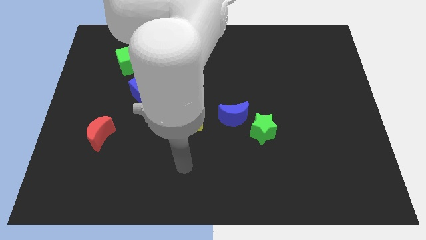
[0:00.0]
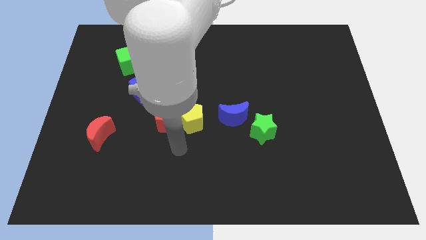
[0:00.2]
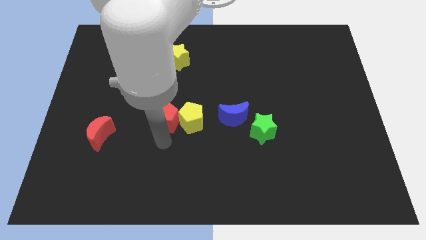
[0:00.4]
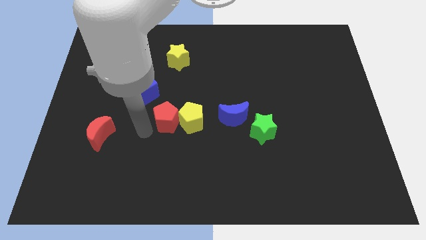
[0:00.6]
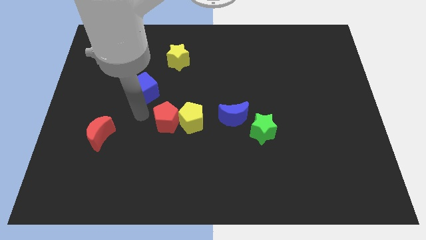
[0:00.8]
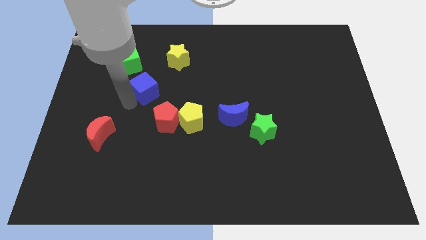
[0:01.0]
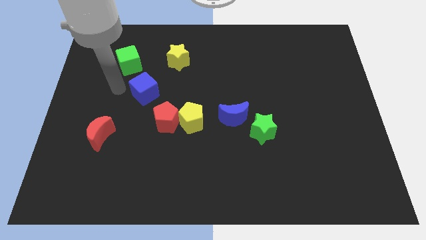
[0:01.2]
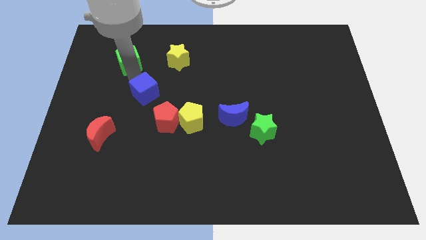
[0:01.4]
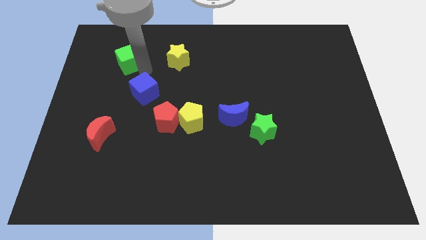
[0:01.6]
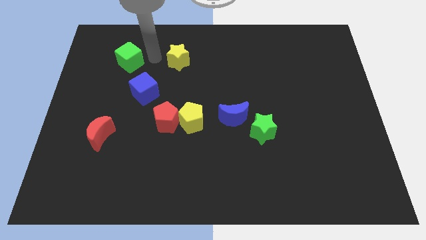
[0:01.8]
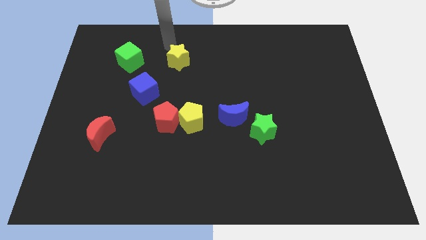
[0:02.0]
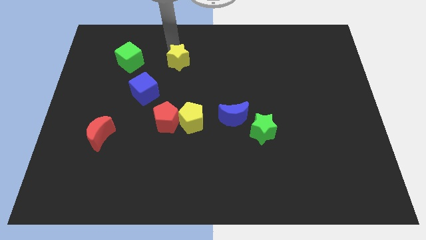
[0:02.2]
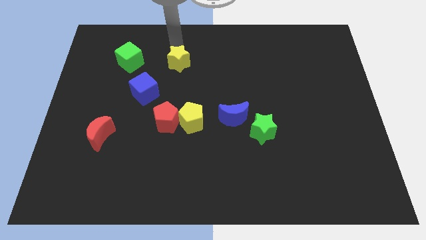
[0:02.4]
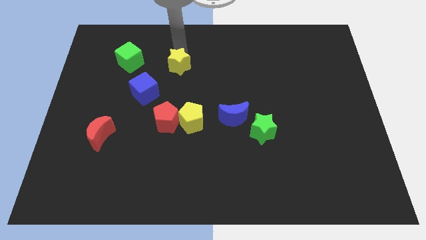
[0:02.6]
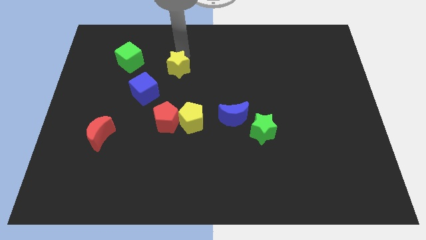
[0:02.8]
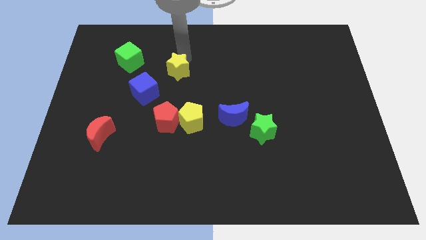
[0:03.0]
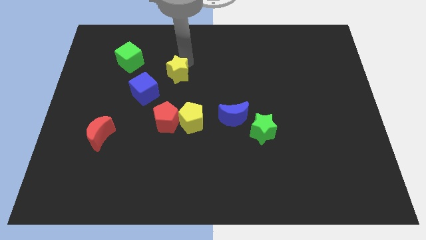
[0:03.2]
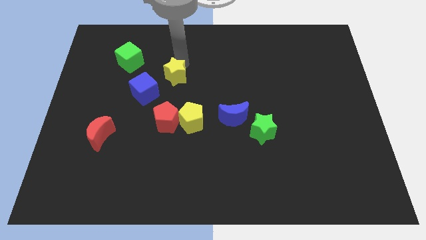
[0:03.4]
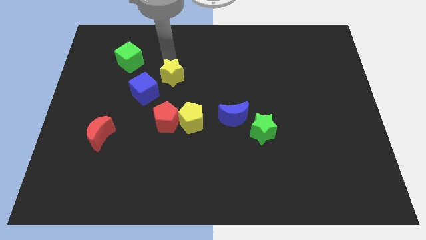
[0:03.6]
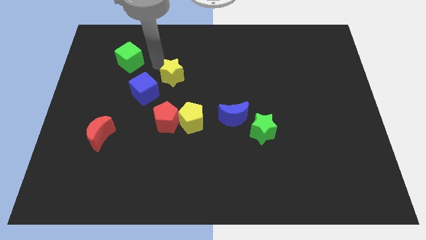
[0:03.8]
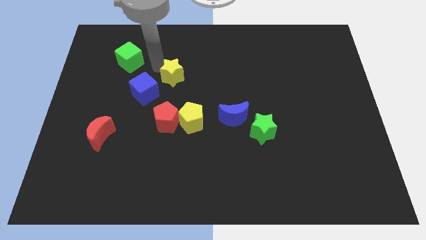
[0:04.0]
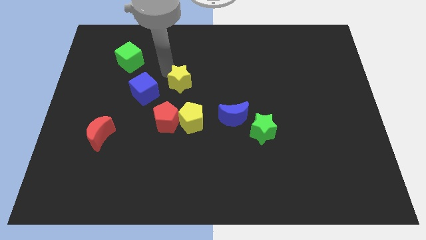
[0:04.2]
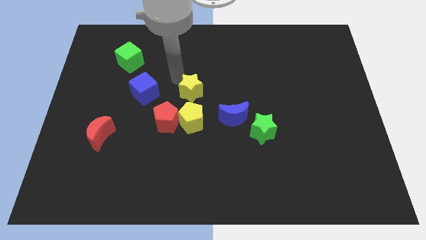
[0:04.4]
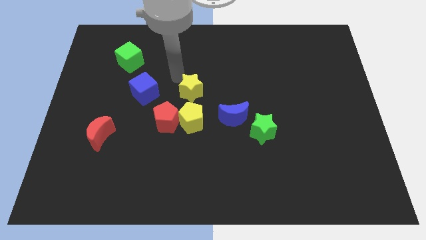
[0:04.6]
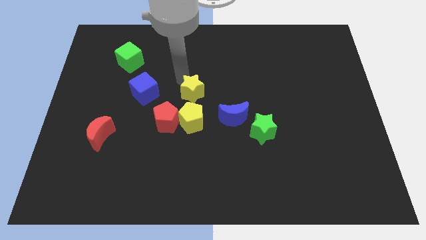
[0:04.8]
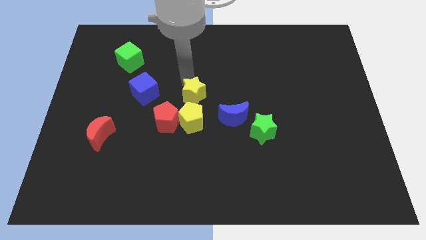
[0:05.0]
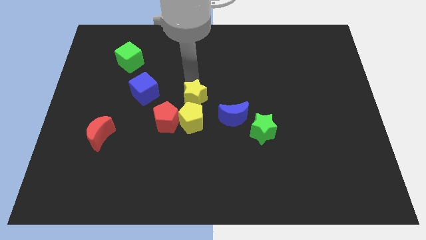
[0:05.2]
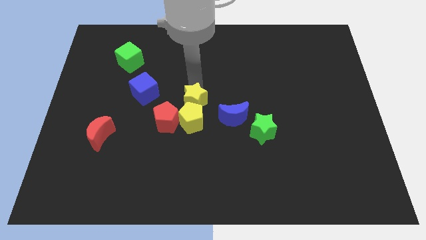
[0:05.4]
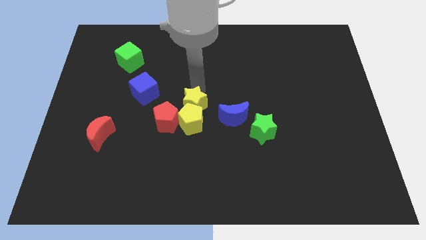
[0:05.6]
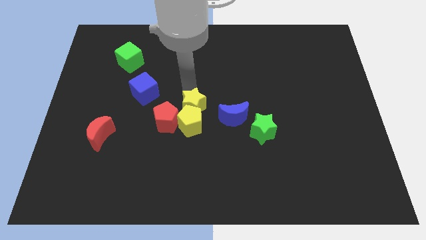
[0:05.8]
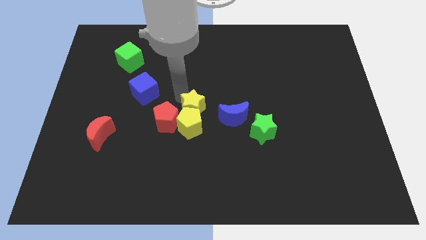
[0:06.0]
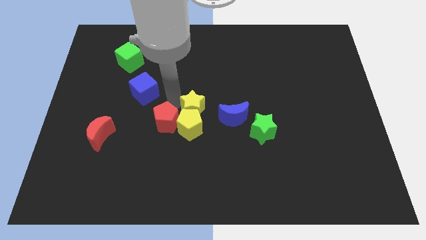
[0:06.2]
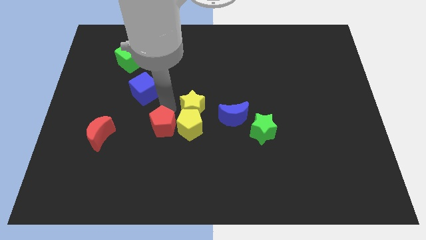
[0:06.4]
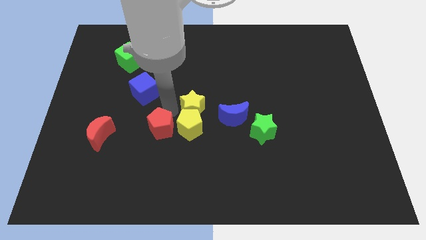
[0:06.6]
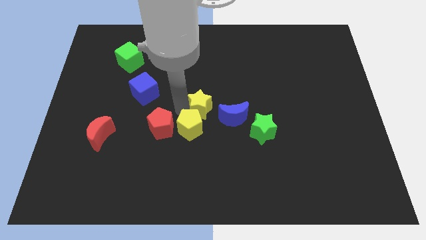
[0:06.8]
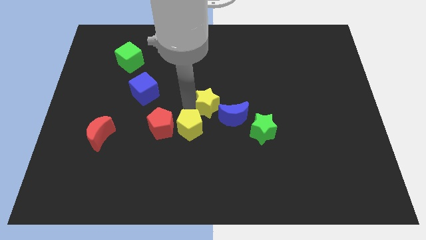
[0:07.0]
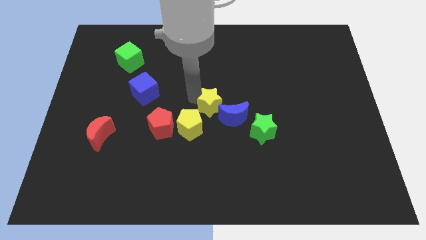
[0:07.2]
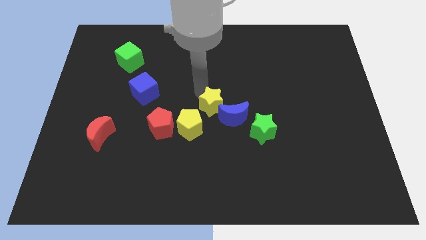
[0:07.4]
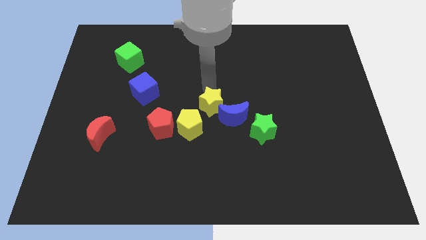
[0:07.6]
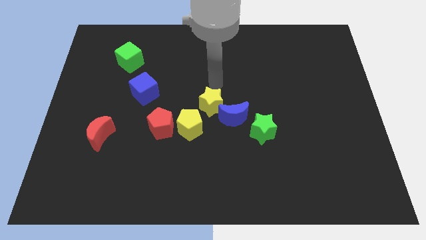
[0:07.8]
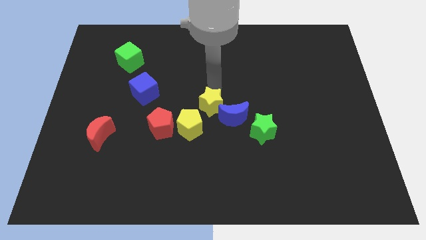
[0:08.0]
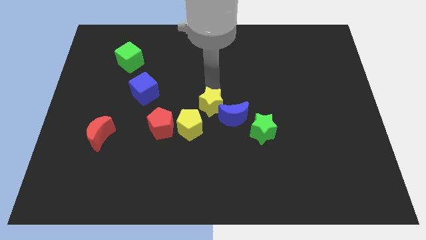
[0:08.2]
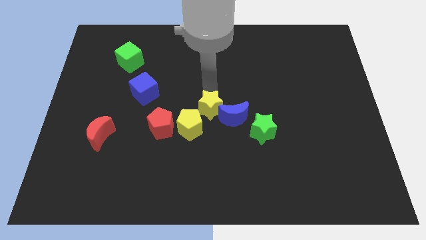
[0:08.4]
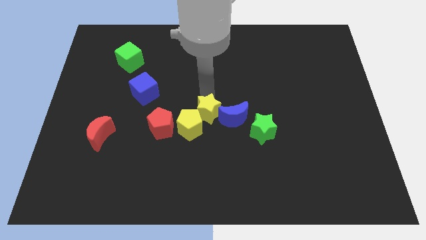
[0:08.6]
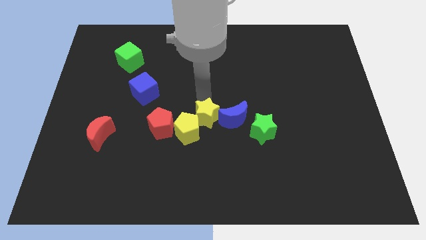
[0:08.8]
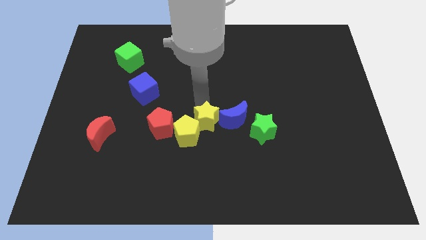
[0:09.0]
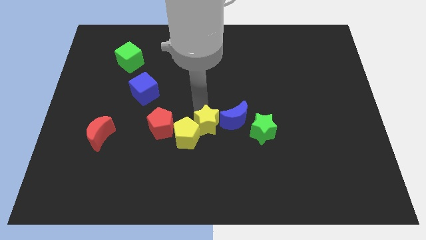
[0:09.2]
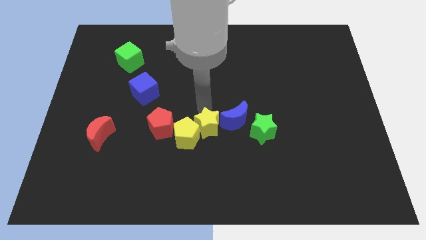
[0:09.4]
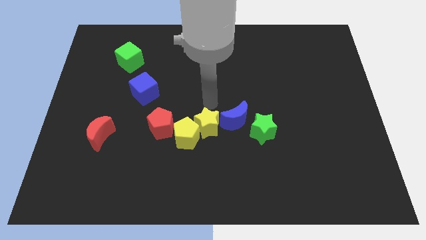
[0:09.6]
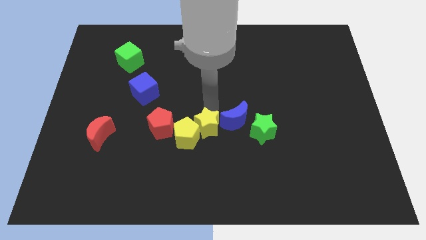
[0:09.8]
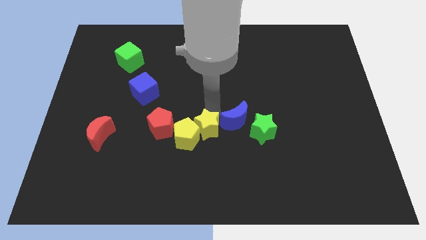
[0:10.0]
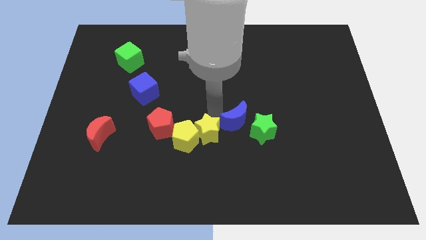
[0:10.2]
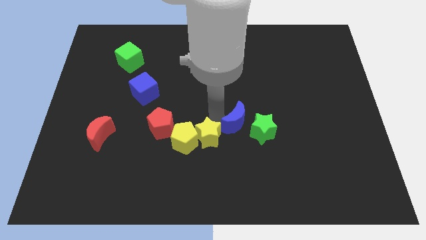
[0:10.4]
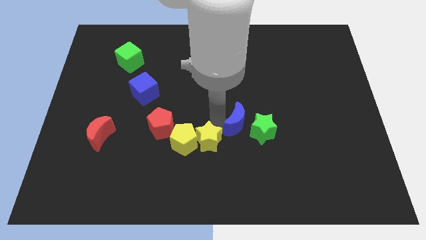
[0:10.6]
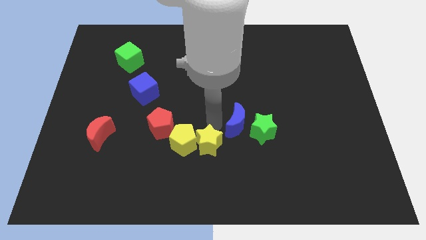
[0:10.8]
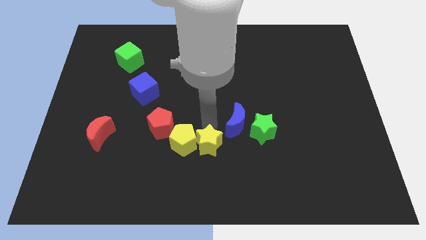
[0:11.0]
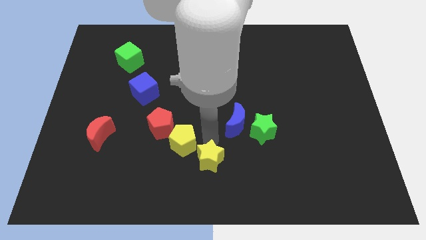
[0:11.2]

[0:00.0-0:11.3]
push the yellow star to the bottom
